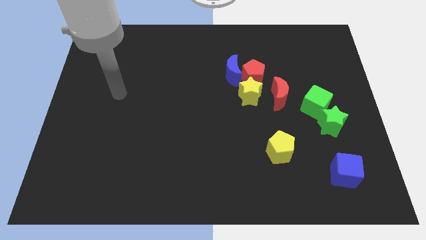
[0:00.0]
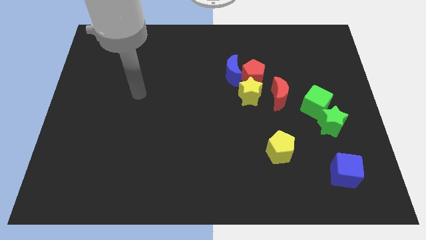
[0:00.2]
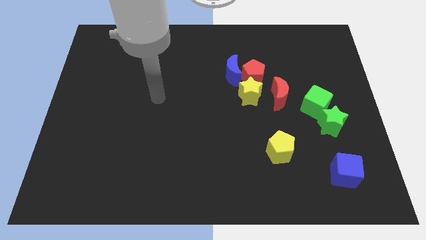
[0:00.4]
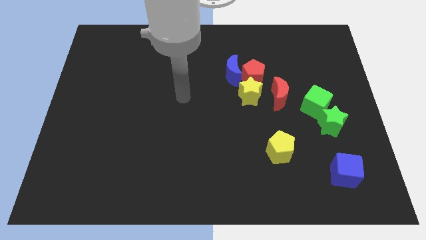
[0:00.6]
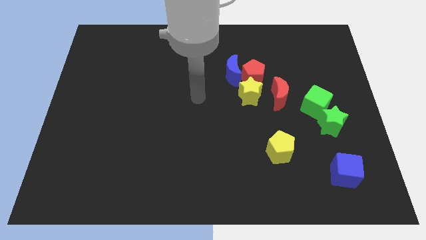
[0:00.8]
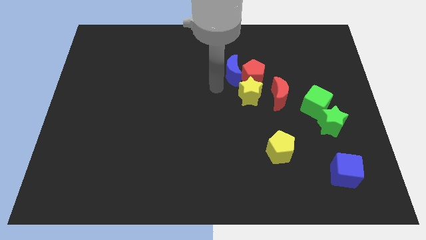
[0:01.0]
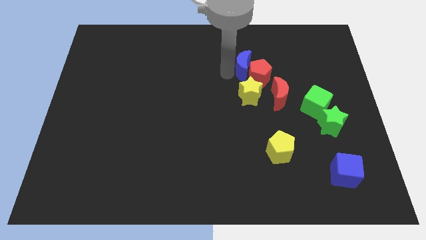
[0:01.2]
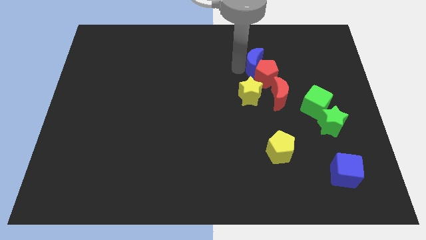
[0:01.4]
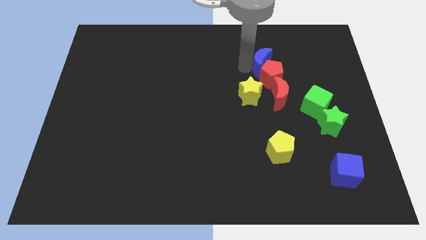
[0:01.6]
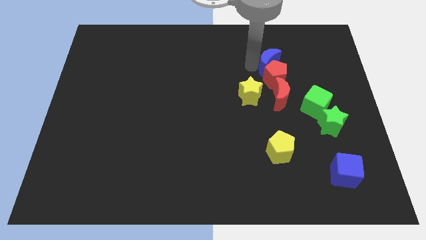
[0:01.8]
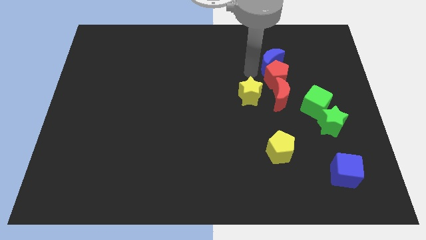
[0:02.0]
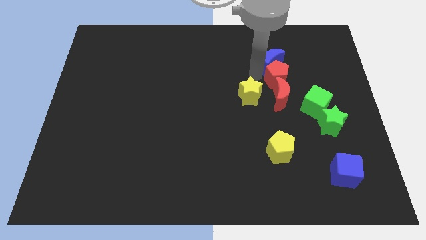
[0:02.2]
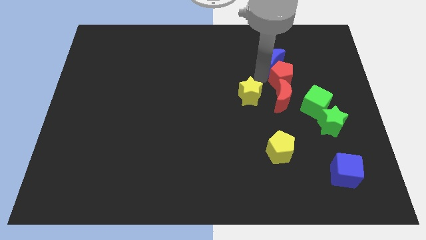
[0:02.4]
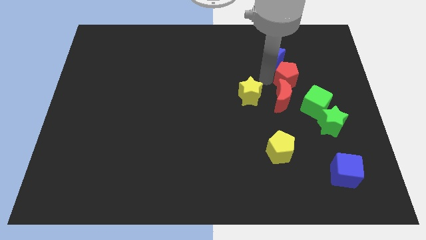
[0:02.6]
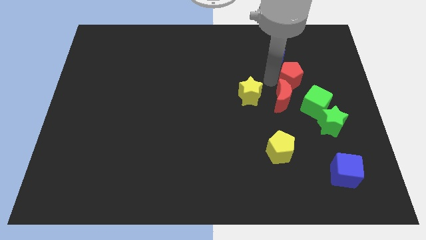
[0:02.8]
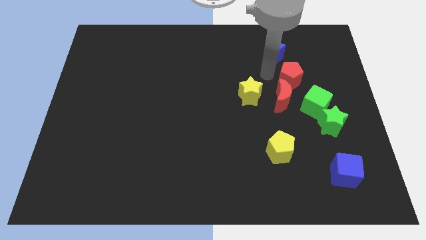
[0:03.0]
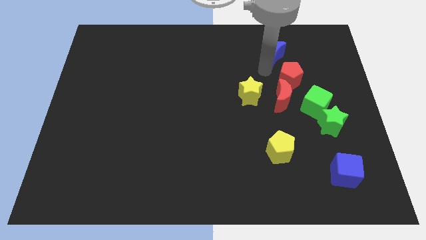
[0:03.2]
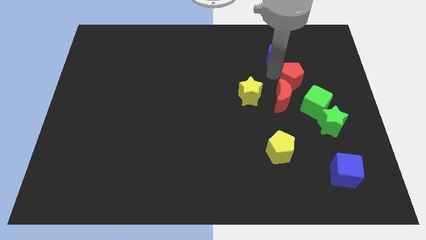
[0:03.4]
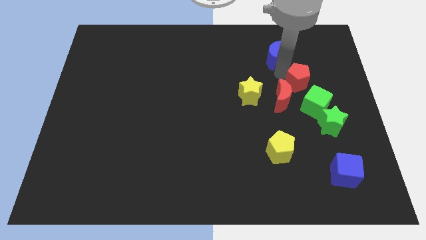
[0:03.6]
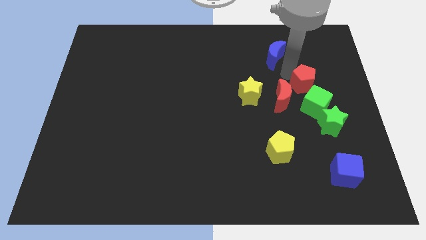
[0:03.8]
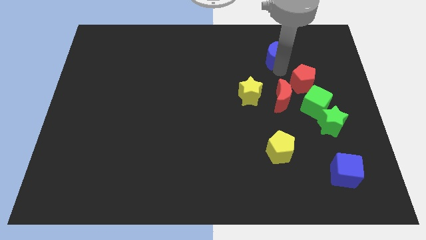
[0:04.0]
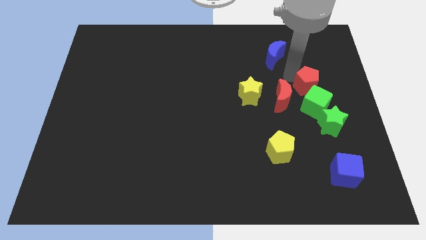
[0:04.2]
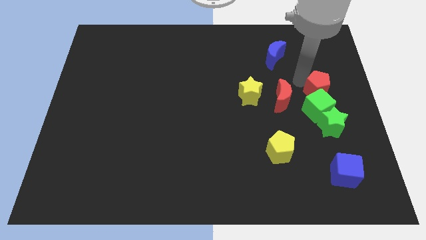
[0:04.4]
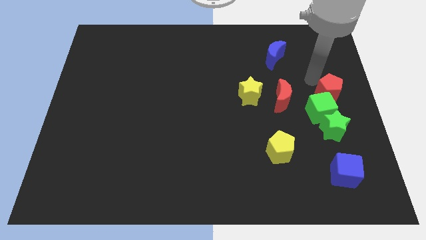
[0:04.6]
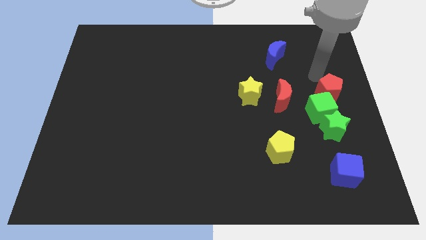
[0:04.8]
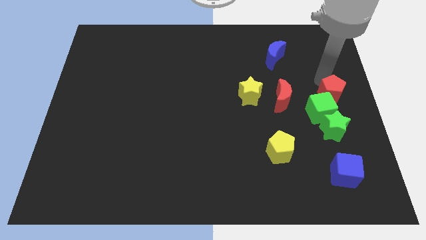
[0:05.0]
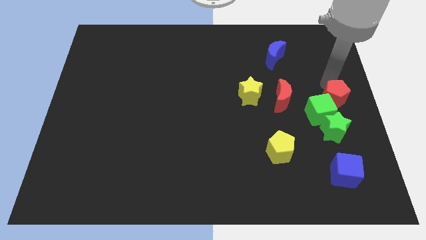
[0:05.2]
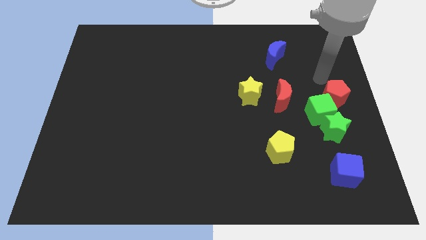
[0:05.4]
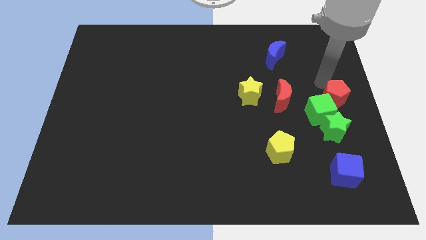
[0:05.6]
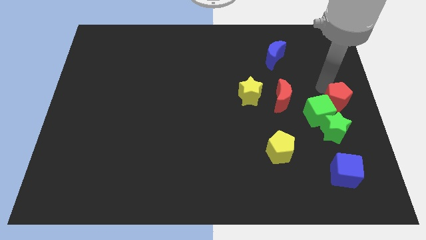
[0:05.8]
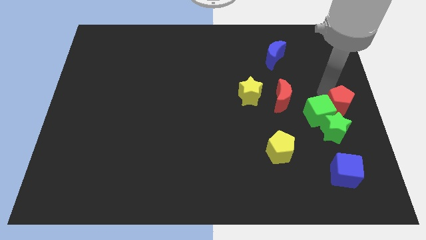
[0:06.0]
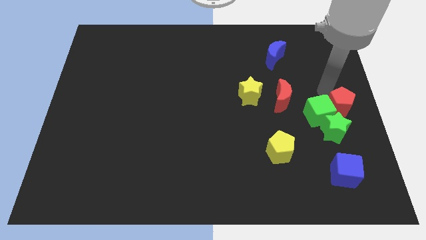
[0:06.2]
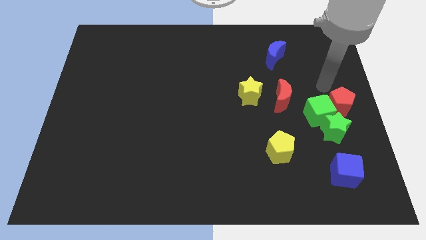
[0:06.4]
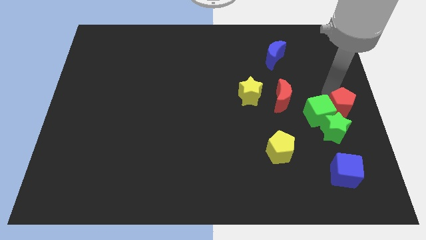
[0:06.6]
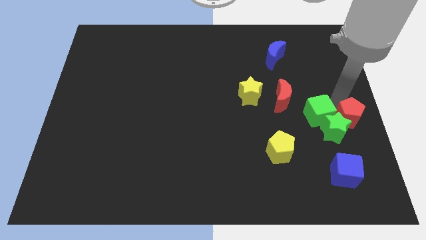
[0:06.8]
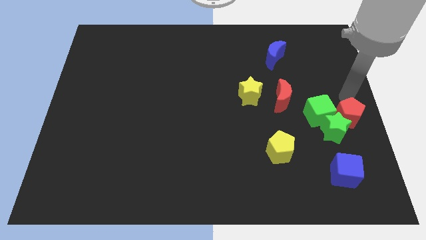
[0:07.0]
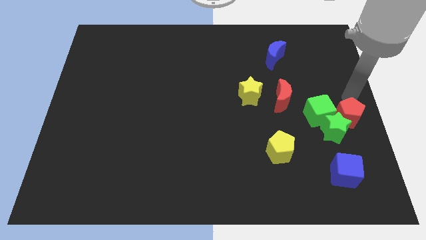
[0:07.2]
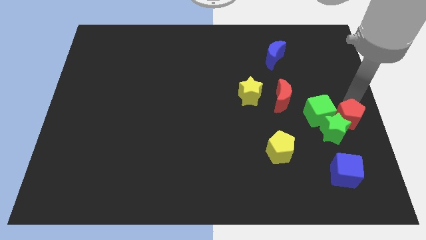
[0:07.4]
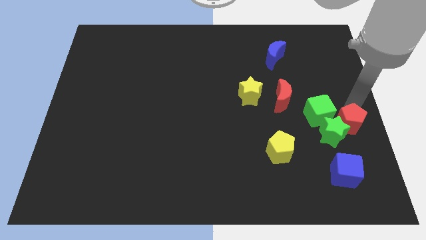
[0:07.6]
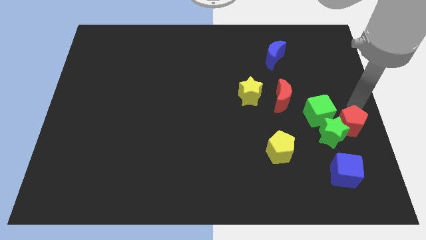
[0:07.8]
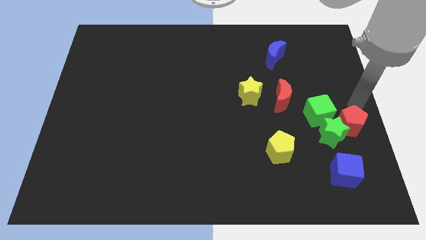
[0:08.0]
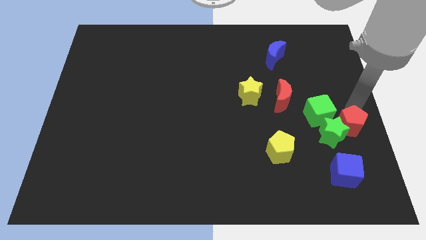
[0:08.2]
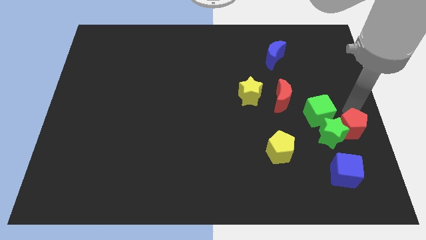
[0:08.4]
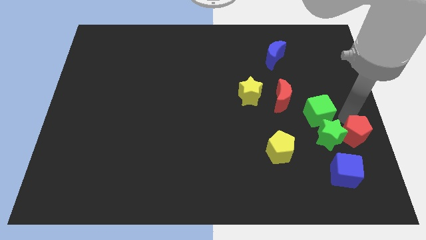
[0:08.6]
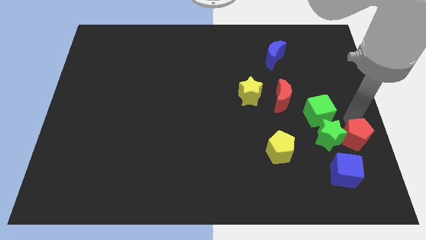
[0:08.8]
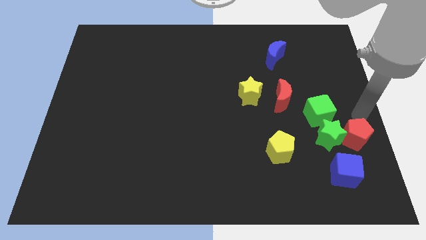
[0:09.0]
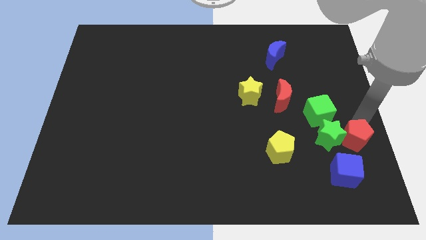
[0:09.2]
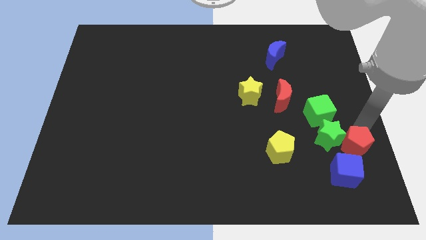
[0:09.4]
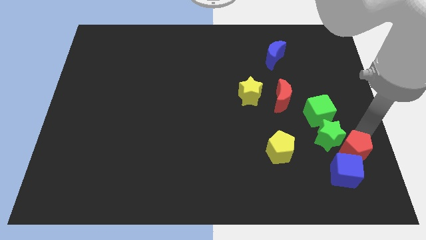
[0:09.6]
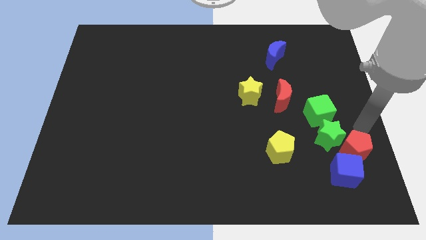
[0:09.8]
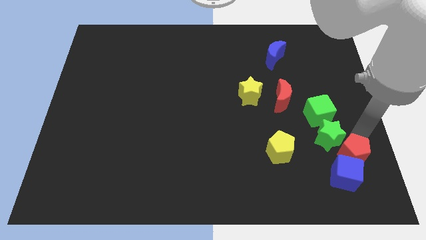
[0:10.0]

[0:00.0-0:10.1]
slide the red pentagon next to the blue cube

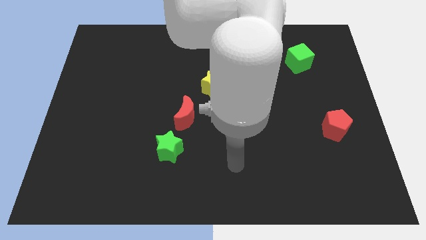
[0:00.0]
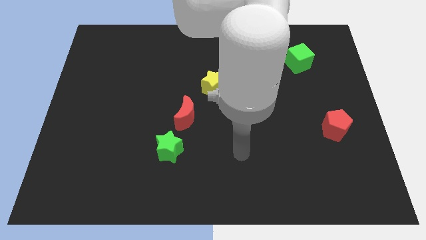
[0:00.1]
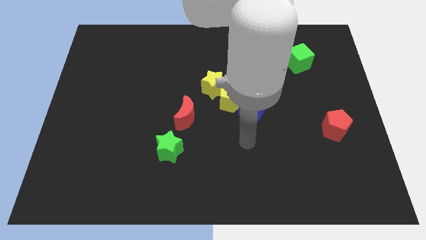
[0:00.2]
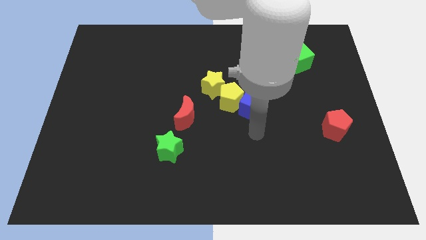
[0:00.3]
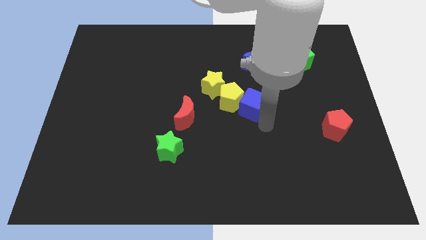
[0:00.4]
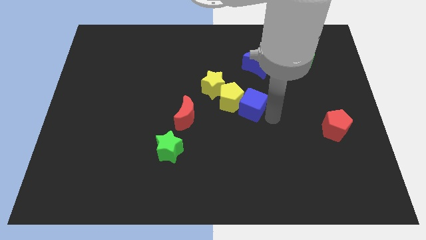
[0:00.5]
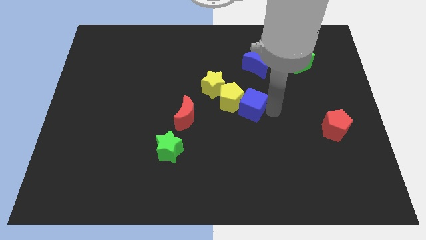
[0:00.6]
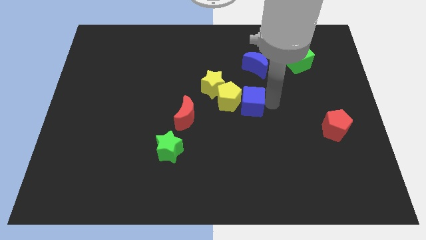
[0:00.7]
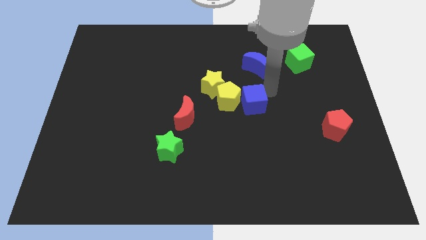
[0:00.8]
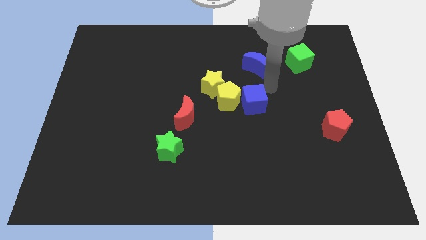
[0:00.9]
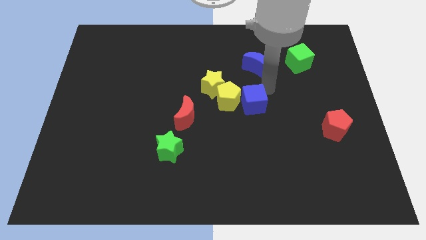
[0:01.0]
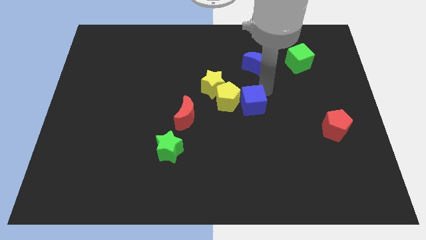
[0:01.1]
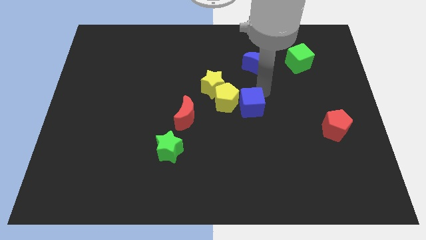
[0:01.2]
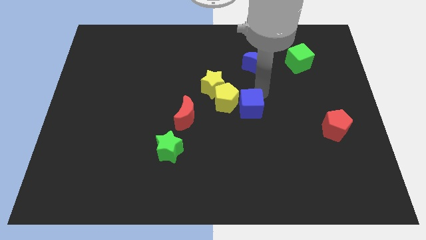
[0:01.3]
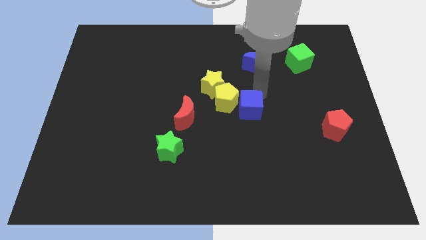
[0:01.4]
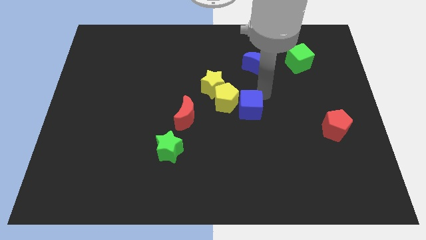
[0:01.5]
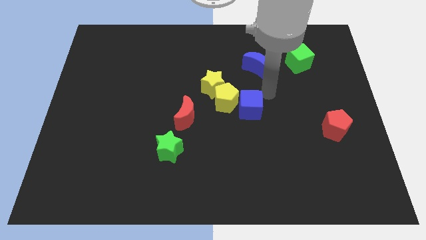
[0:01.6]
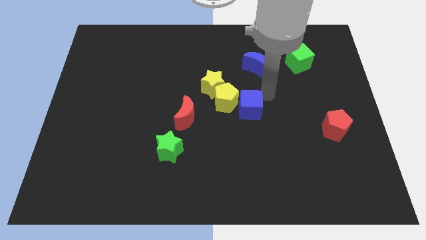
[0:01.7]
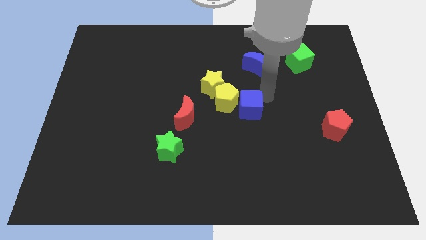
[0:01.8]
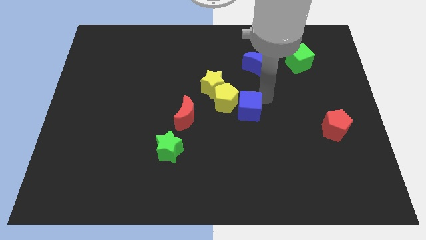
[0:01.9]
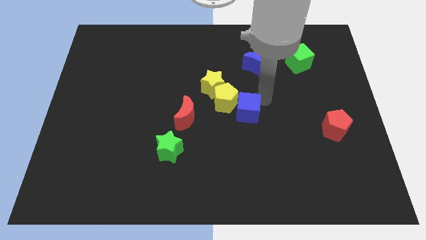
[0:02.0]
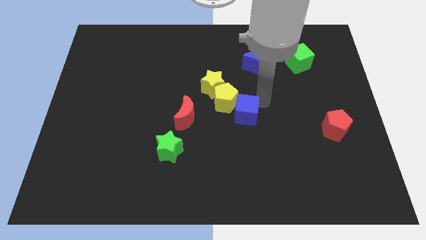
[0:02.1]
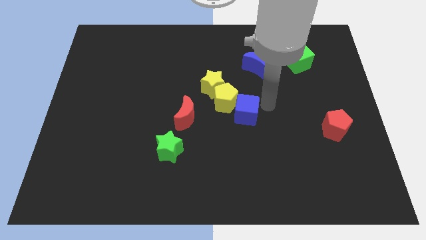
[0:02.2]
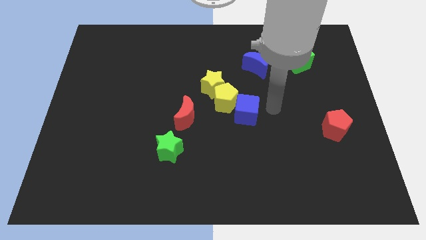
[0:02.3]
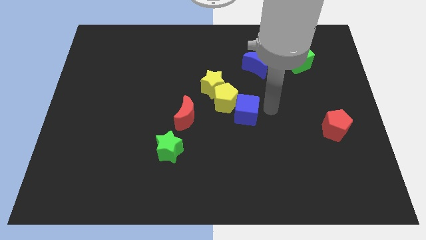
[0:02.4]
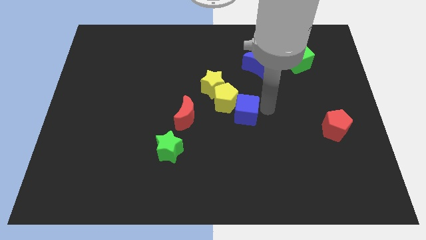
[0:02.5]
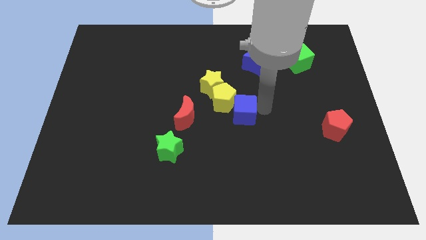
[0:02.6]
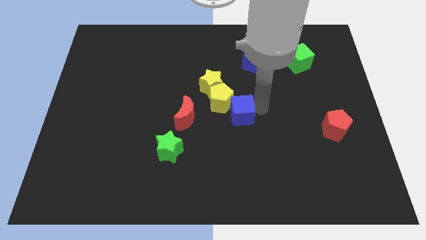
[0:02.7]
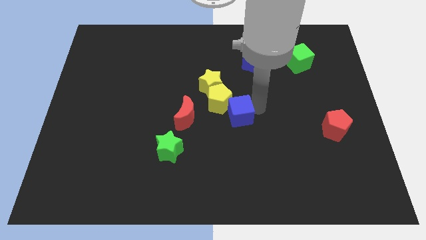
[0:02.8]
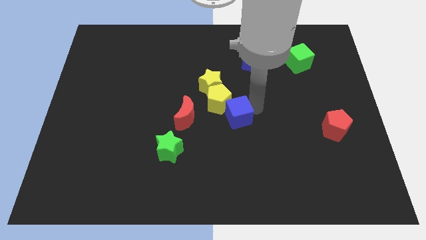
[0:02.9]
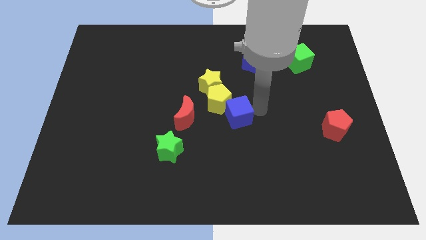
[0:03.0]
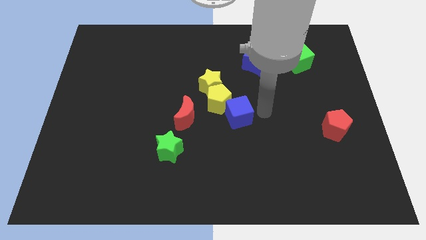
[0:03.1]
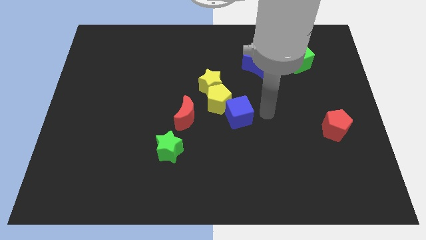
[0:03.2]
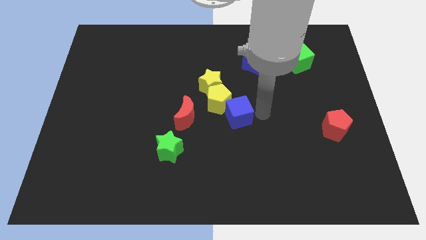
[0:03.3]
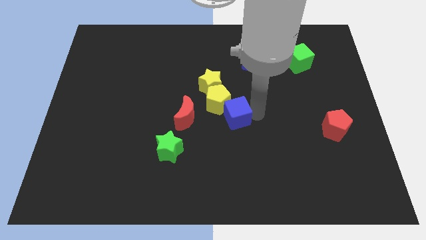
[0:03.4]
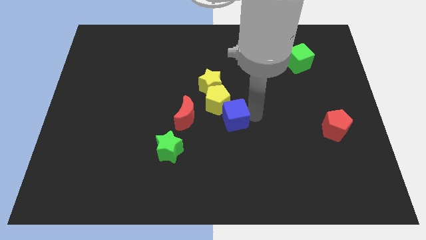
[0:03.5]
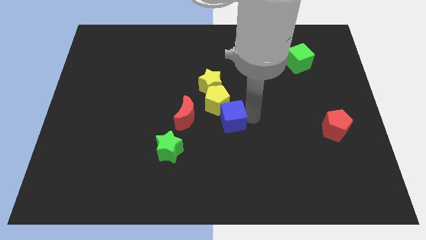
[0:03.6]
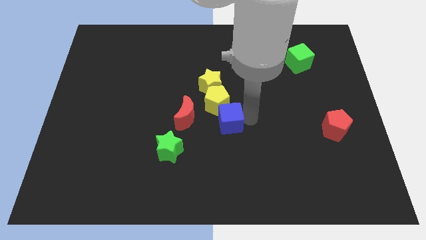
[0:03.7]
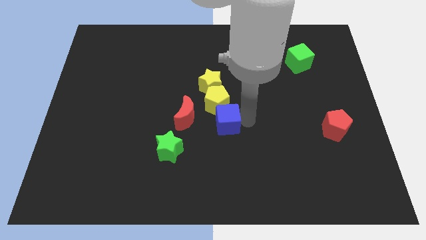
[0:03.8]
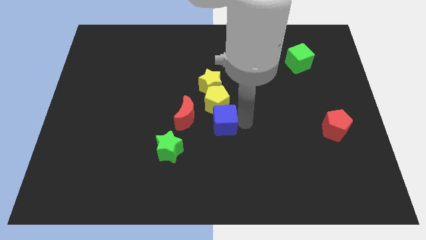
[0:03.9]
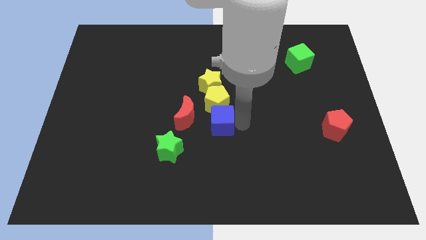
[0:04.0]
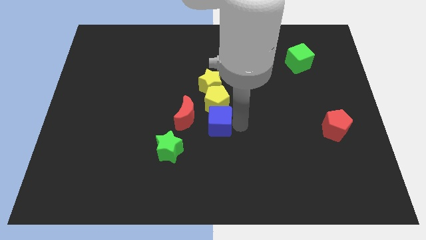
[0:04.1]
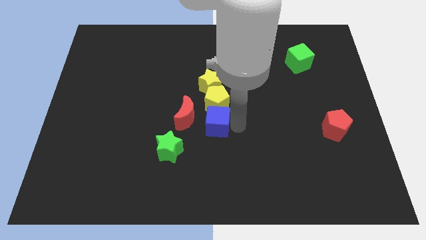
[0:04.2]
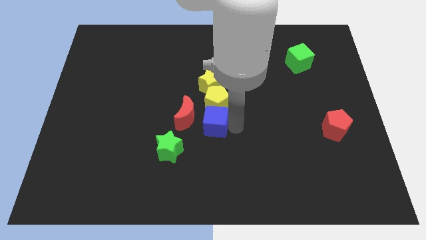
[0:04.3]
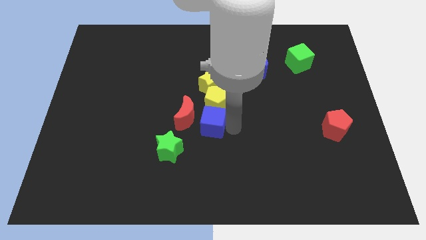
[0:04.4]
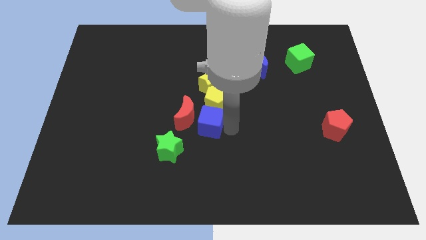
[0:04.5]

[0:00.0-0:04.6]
move the blue cube next to the red moon
